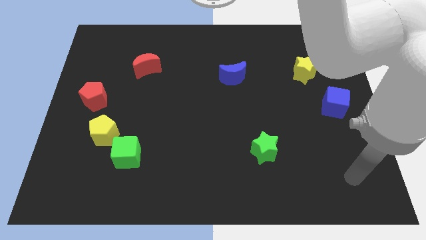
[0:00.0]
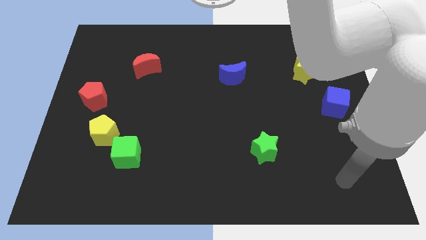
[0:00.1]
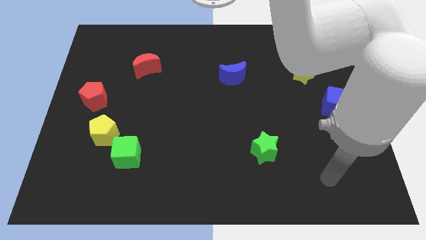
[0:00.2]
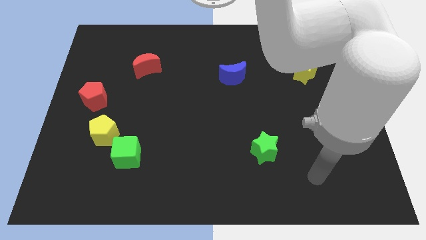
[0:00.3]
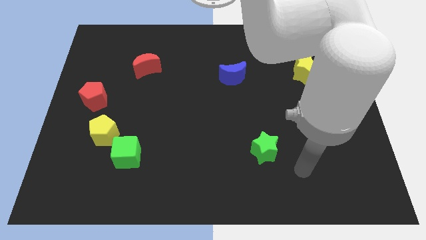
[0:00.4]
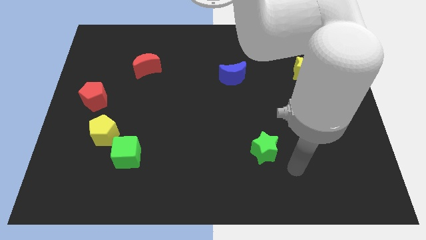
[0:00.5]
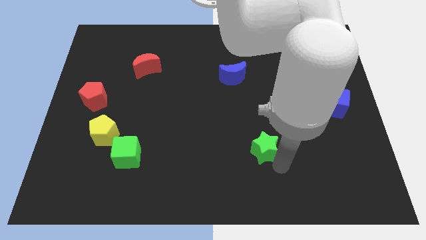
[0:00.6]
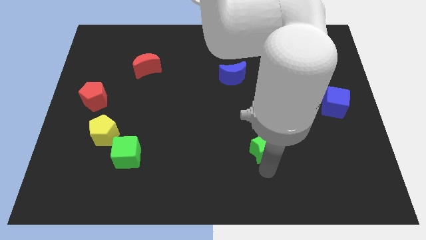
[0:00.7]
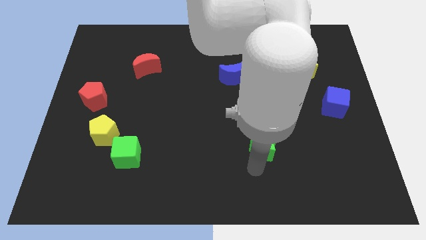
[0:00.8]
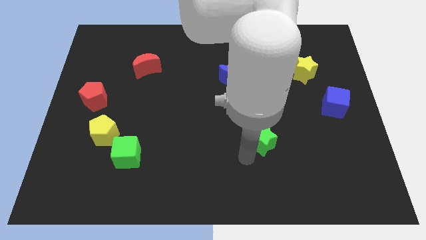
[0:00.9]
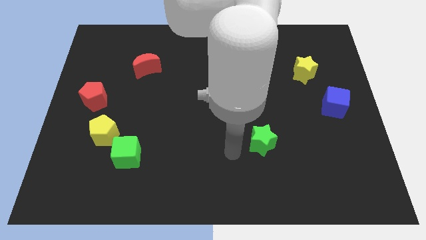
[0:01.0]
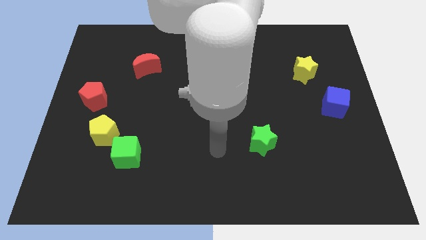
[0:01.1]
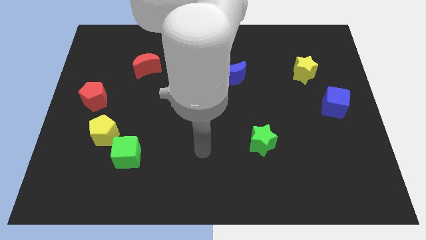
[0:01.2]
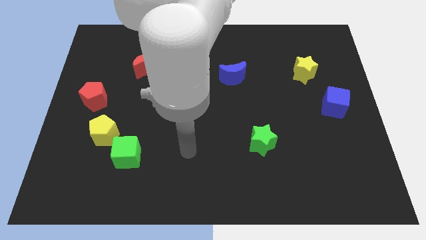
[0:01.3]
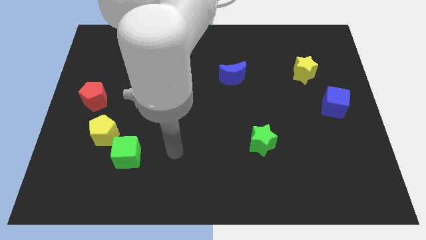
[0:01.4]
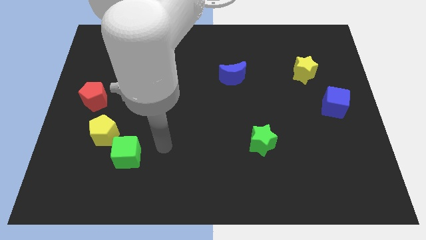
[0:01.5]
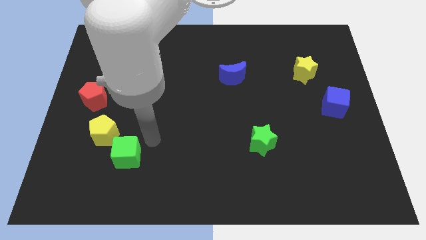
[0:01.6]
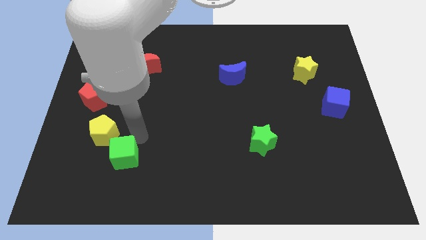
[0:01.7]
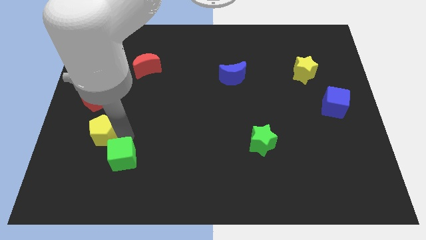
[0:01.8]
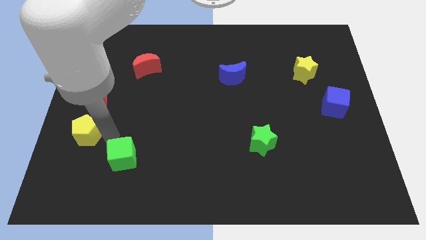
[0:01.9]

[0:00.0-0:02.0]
move the green cube away from the yellow pentagon

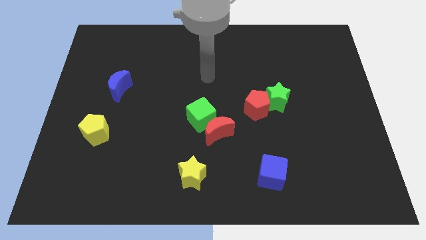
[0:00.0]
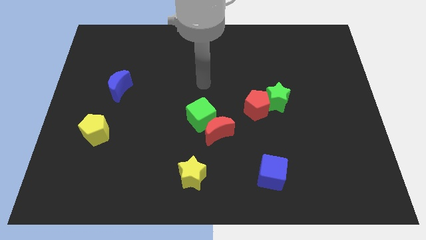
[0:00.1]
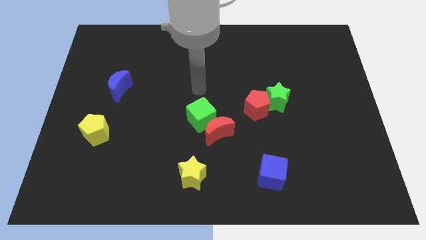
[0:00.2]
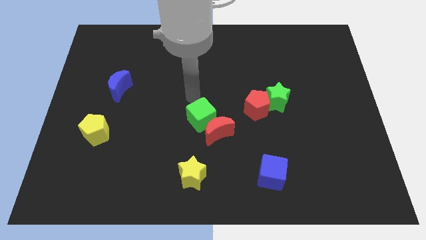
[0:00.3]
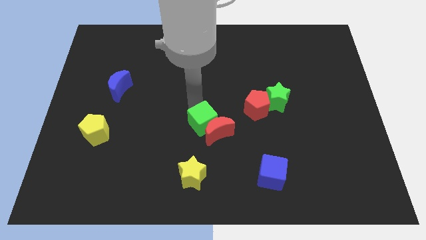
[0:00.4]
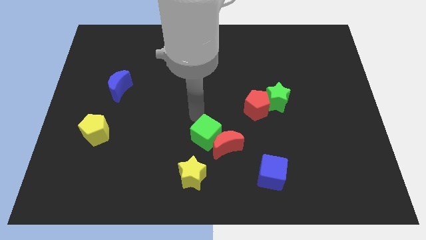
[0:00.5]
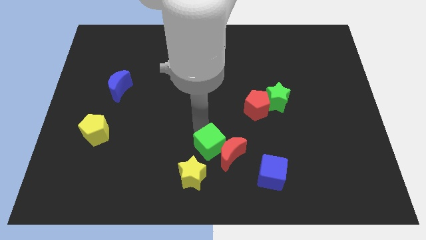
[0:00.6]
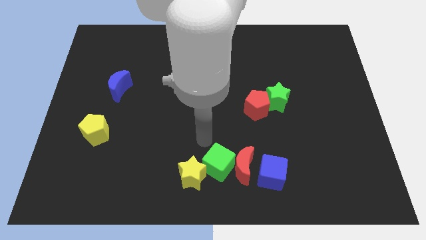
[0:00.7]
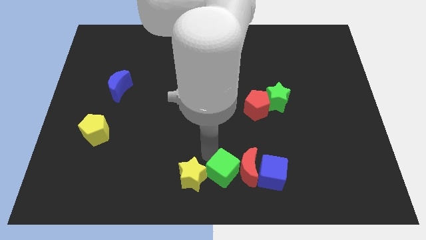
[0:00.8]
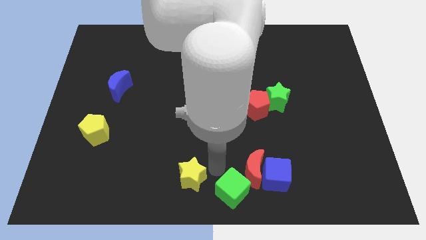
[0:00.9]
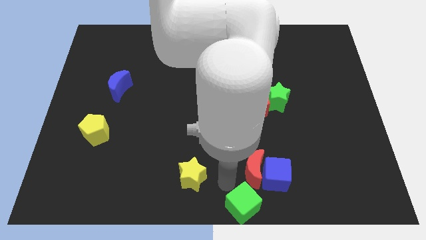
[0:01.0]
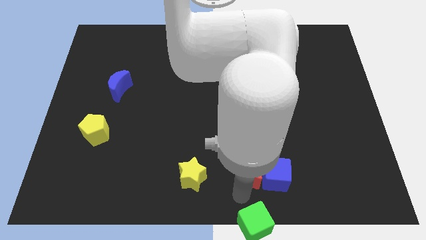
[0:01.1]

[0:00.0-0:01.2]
move the red moon away from the green cube

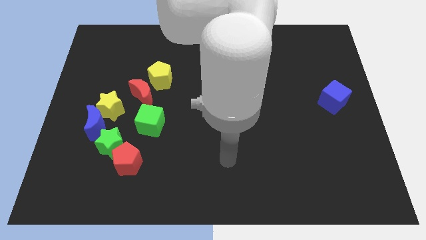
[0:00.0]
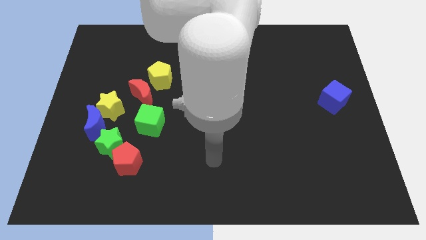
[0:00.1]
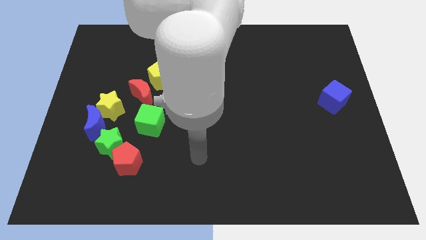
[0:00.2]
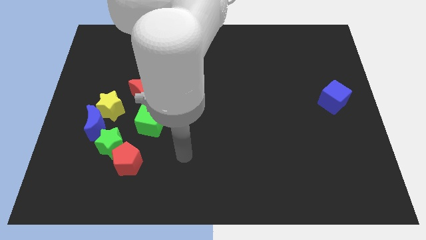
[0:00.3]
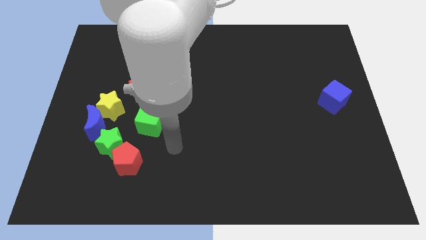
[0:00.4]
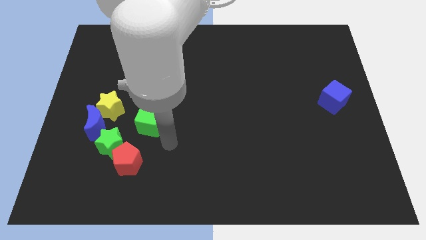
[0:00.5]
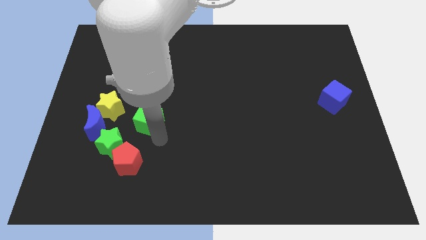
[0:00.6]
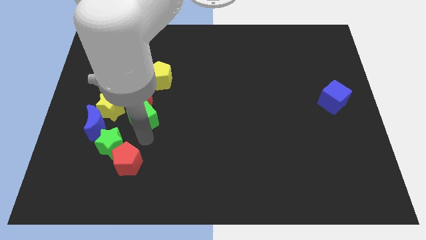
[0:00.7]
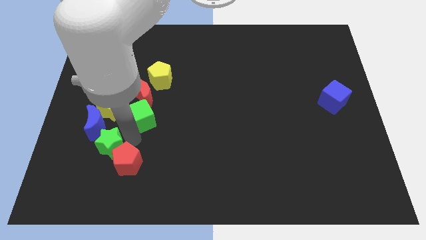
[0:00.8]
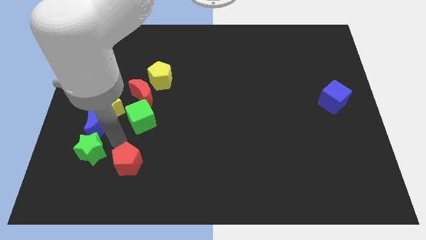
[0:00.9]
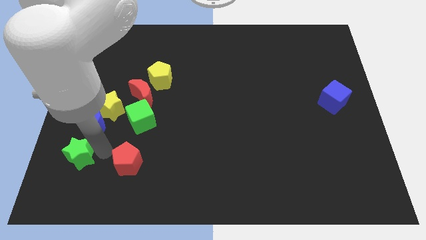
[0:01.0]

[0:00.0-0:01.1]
move the red pentagon away from the green star

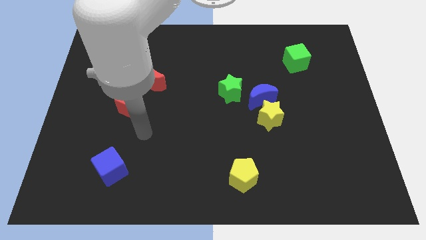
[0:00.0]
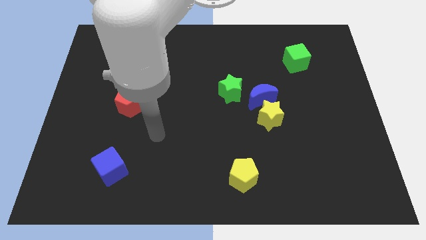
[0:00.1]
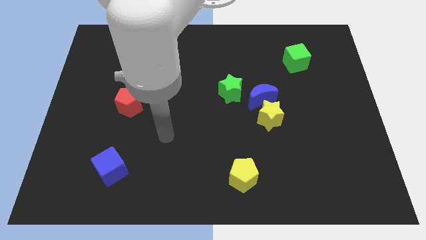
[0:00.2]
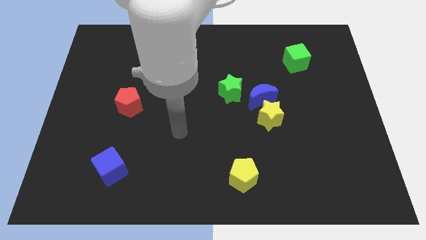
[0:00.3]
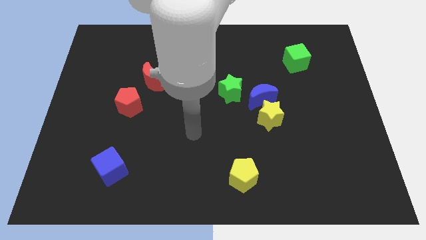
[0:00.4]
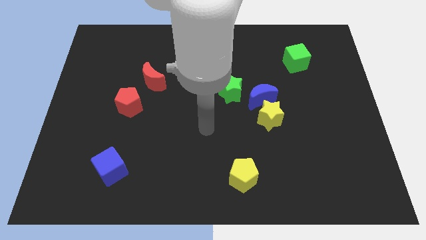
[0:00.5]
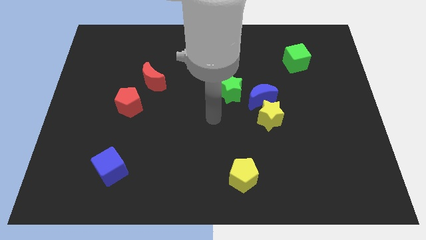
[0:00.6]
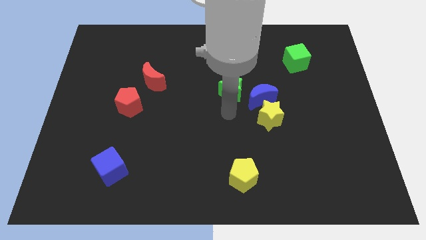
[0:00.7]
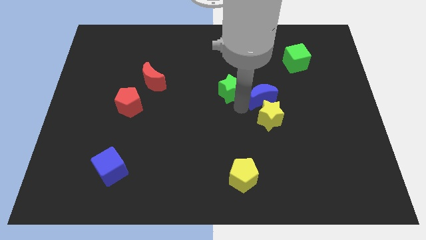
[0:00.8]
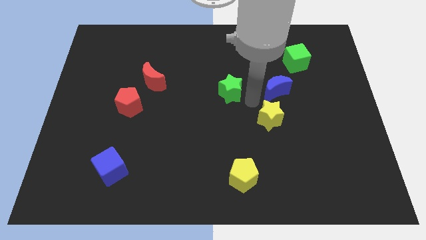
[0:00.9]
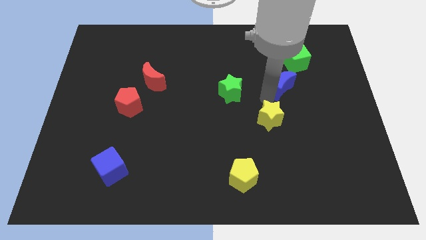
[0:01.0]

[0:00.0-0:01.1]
move the yellow star away from the blue moon

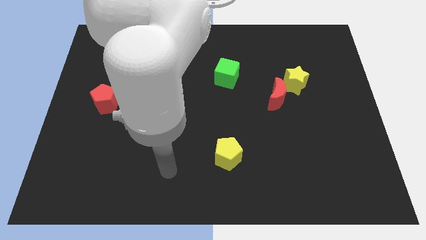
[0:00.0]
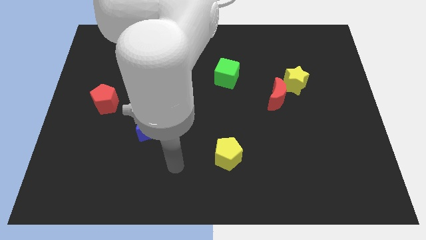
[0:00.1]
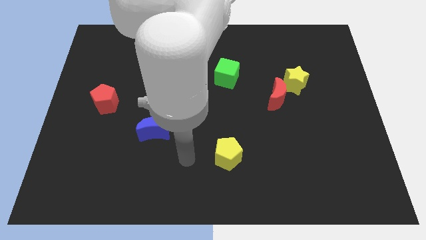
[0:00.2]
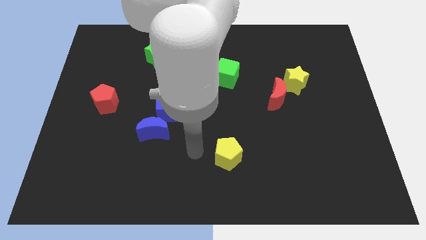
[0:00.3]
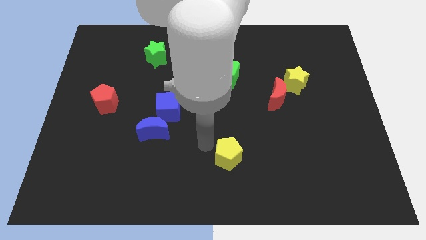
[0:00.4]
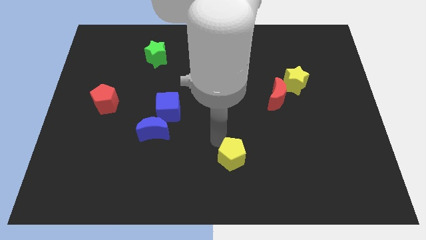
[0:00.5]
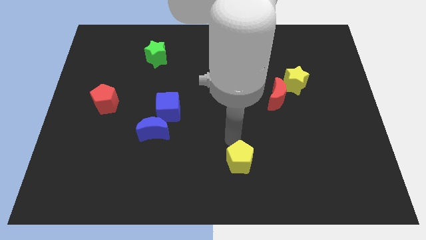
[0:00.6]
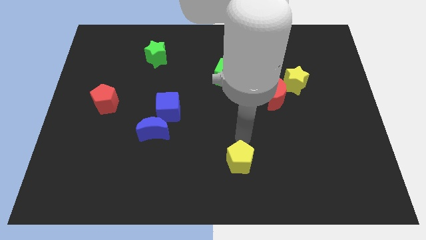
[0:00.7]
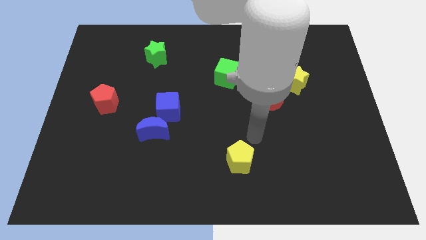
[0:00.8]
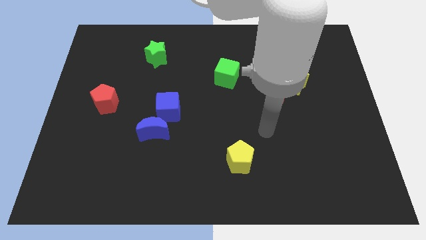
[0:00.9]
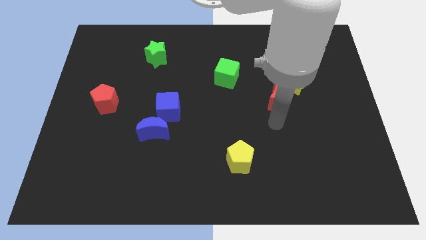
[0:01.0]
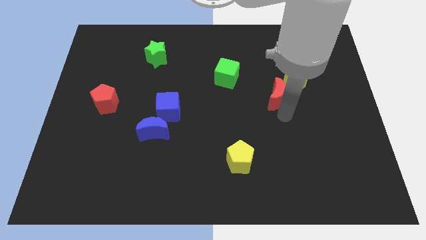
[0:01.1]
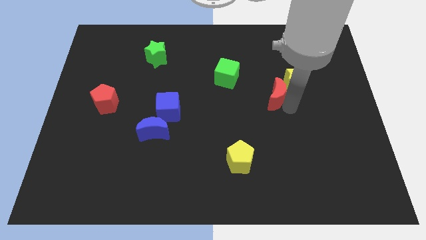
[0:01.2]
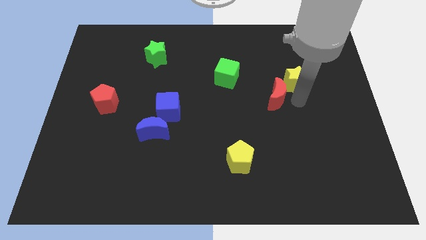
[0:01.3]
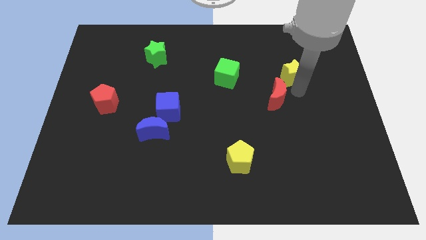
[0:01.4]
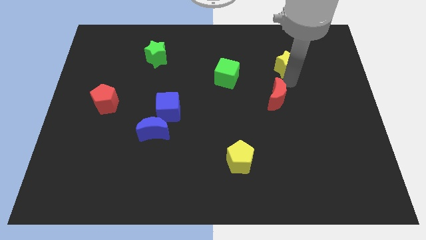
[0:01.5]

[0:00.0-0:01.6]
move the red moon away from the yellow star

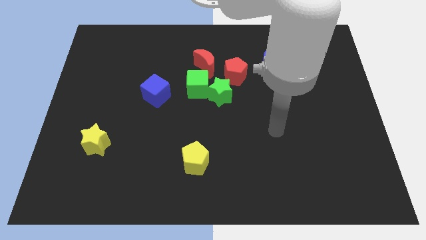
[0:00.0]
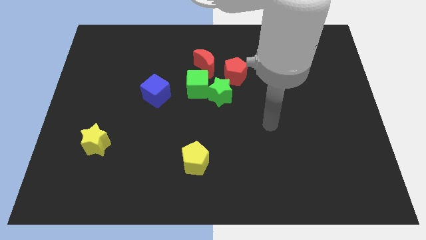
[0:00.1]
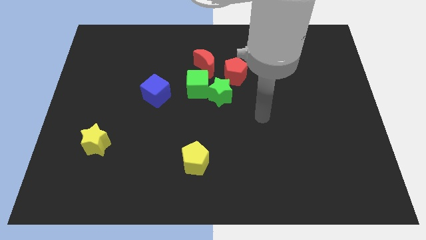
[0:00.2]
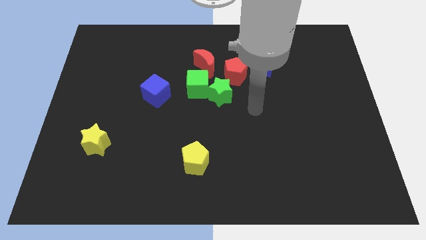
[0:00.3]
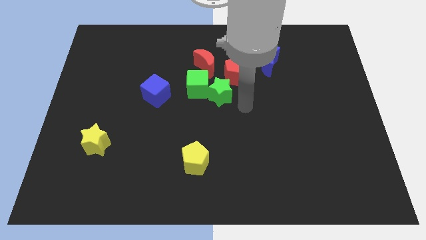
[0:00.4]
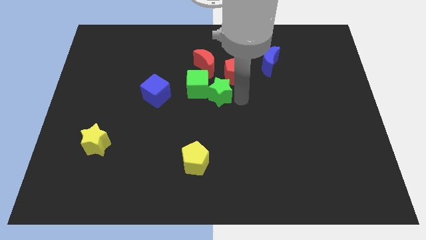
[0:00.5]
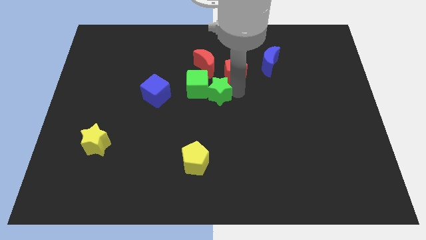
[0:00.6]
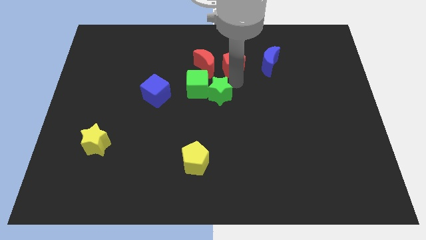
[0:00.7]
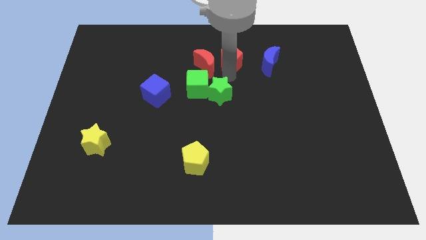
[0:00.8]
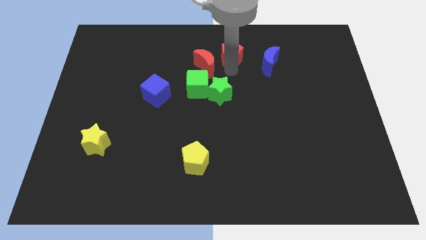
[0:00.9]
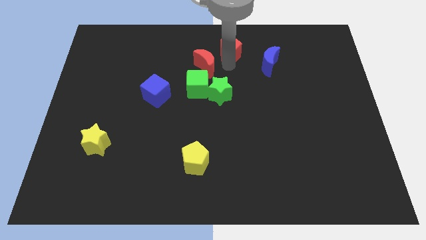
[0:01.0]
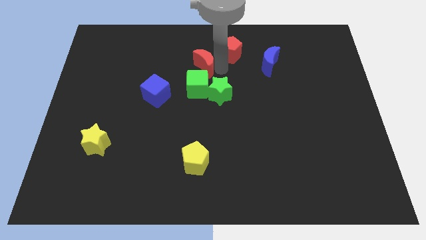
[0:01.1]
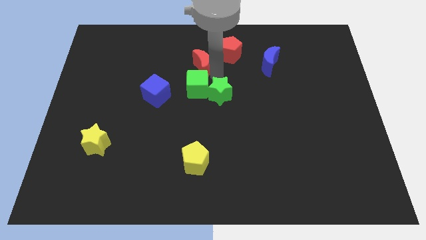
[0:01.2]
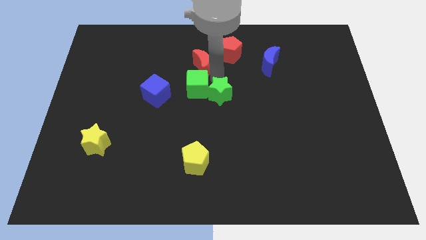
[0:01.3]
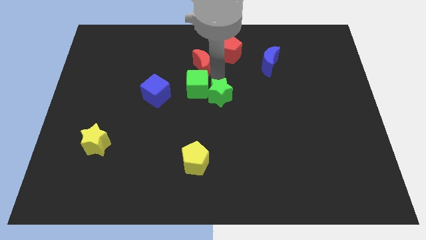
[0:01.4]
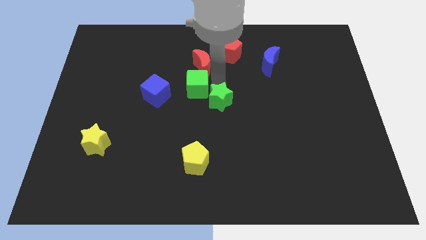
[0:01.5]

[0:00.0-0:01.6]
pull the green star apart from the green cube and red pentagon

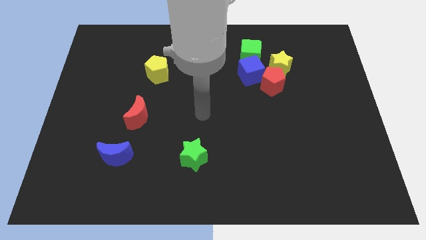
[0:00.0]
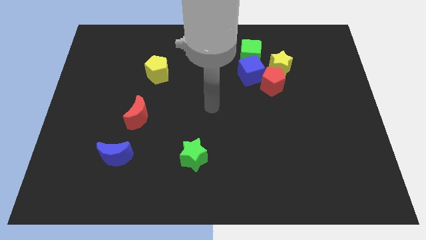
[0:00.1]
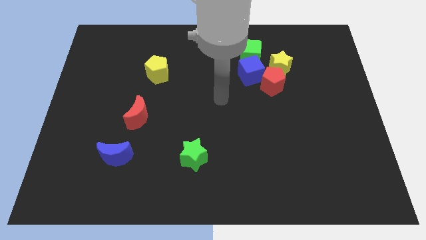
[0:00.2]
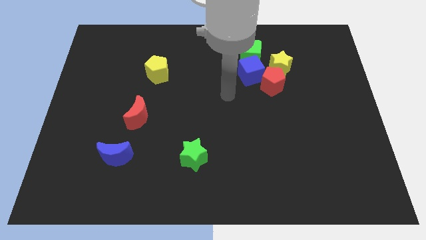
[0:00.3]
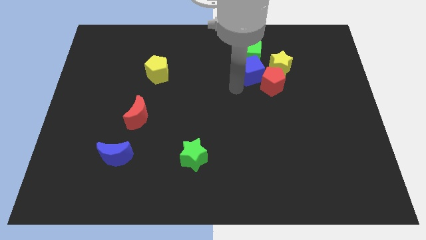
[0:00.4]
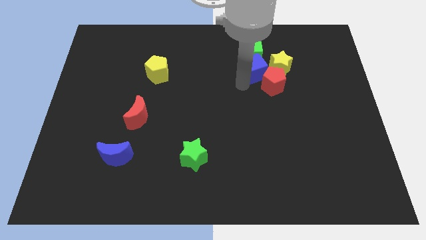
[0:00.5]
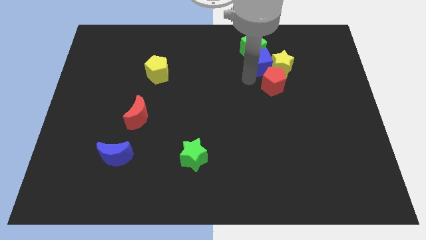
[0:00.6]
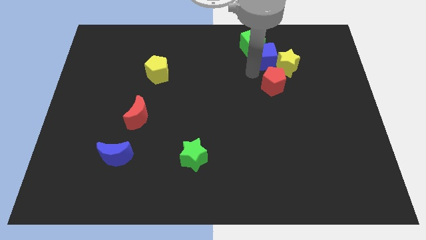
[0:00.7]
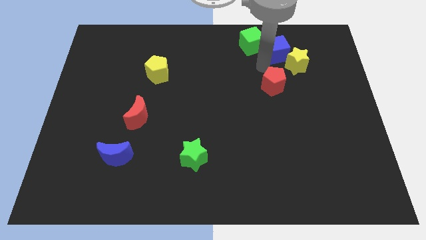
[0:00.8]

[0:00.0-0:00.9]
separate the red pentagon from the blue cube and yellow star
